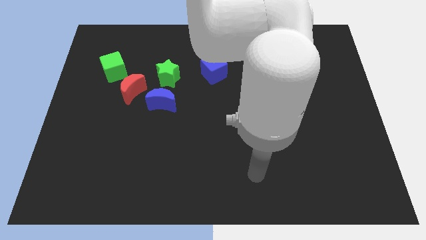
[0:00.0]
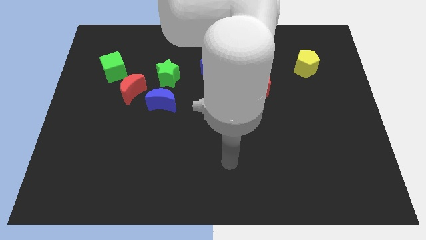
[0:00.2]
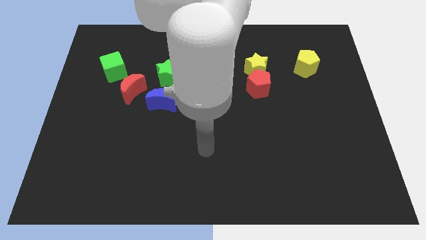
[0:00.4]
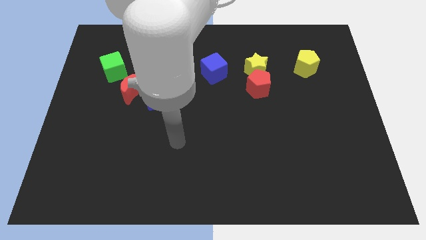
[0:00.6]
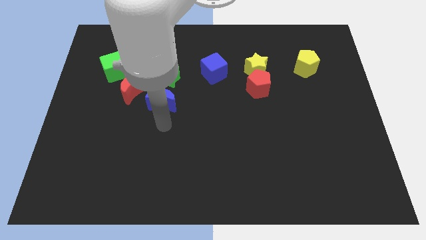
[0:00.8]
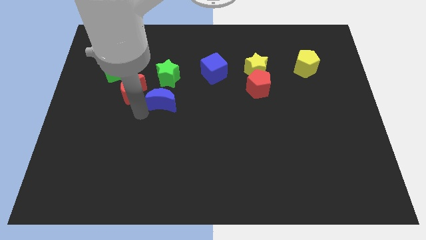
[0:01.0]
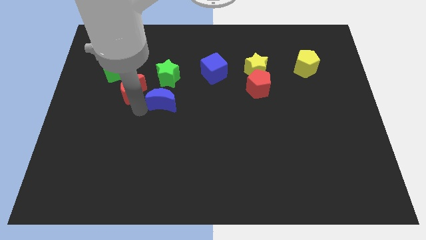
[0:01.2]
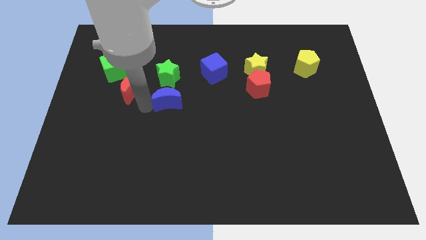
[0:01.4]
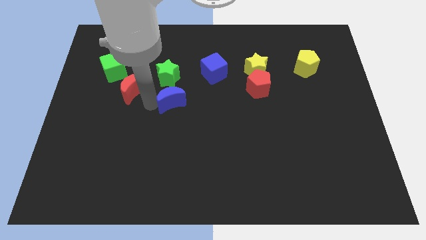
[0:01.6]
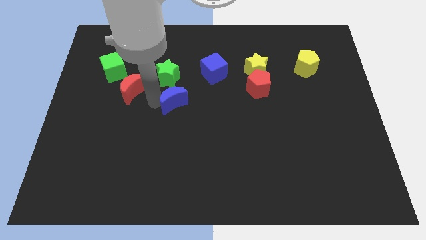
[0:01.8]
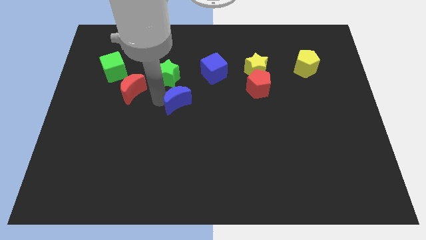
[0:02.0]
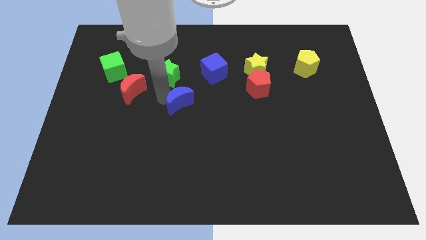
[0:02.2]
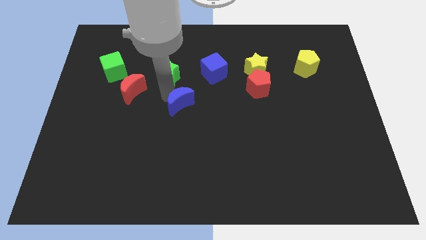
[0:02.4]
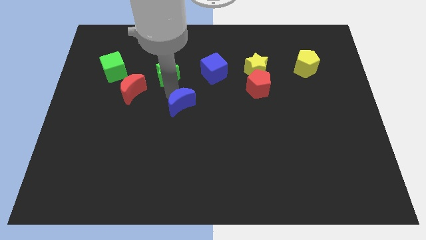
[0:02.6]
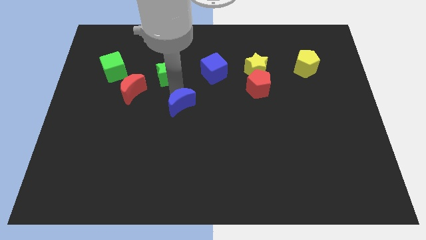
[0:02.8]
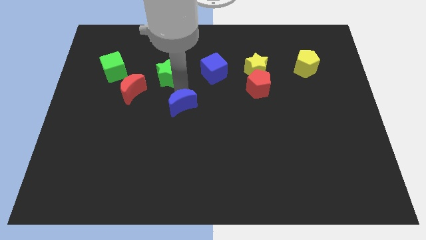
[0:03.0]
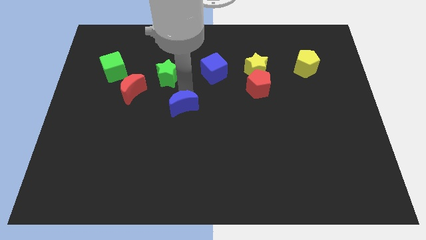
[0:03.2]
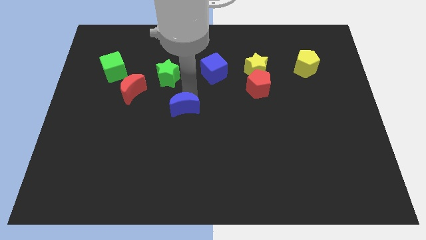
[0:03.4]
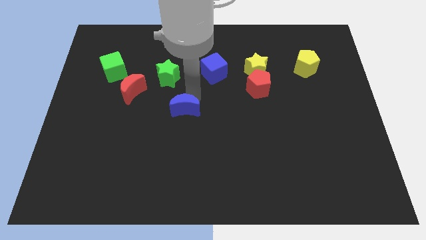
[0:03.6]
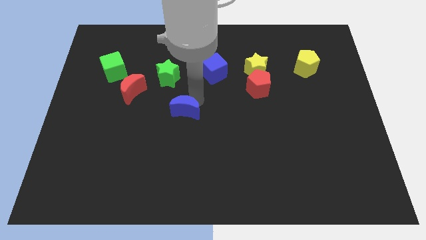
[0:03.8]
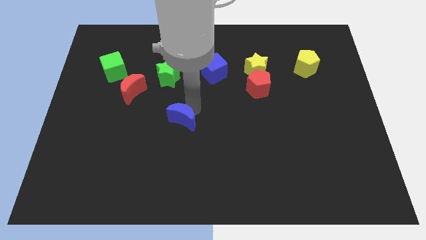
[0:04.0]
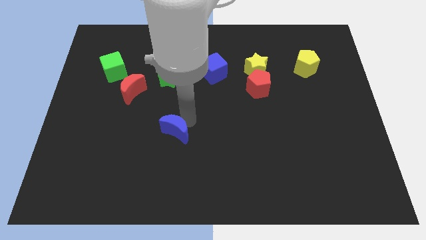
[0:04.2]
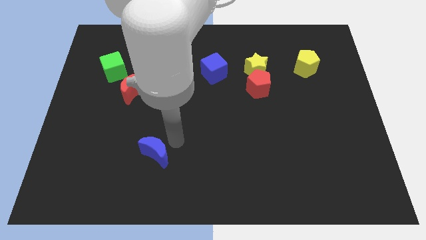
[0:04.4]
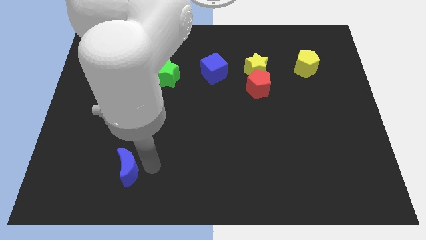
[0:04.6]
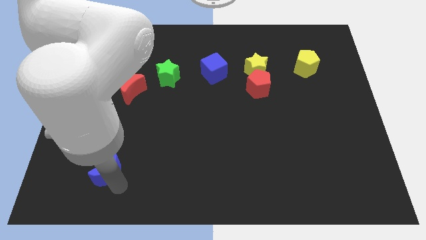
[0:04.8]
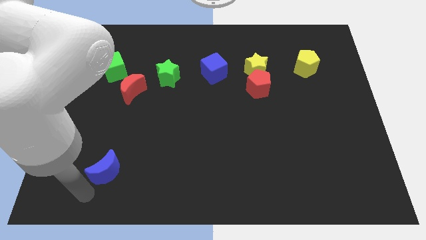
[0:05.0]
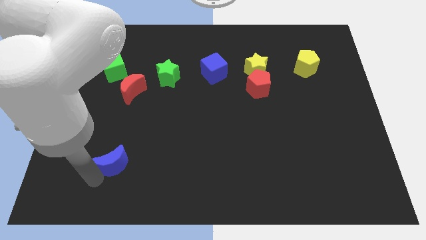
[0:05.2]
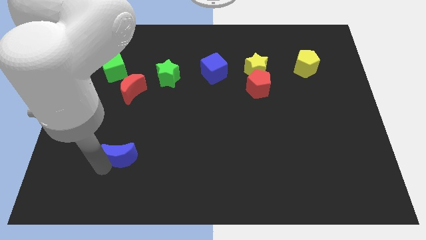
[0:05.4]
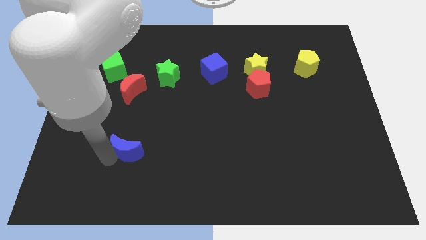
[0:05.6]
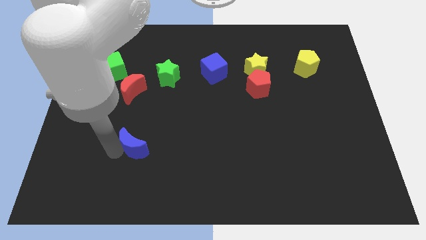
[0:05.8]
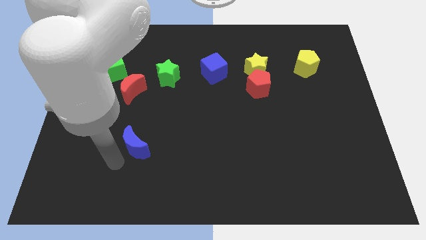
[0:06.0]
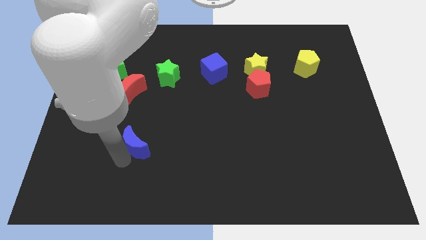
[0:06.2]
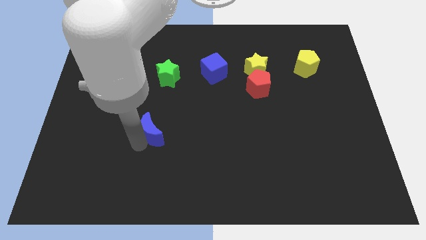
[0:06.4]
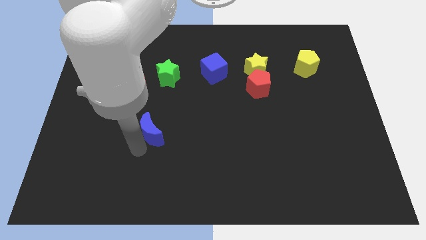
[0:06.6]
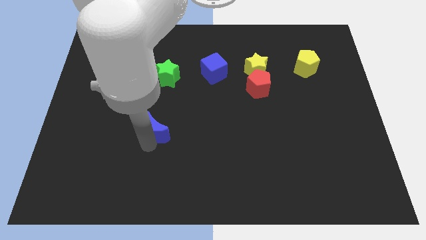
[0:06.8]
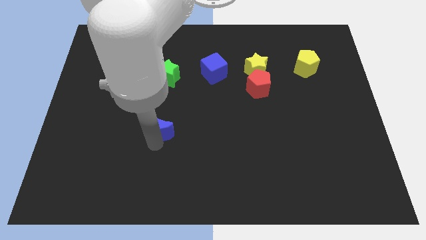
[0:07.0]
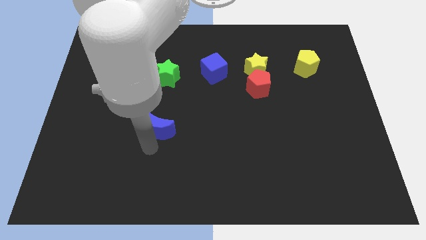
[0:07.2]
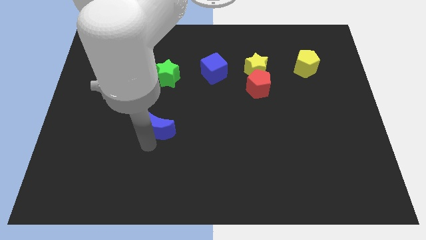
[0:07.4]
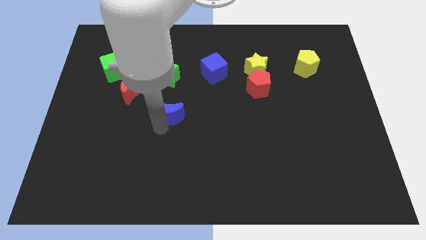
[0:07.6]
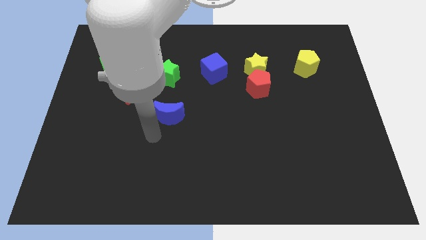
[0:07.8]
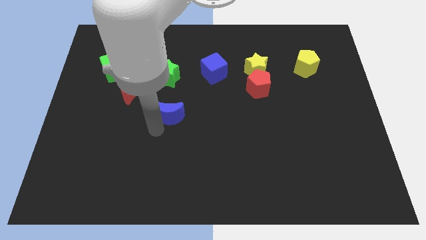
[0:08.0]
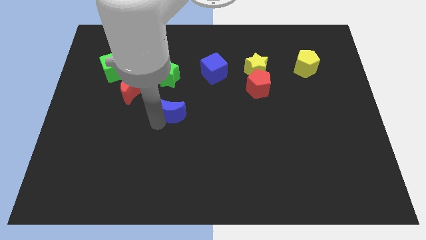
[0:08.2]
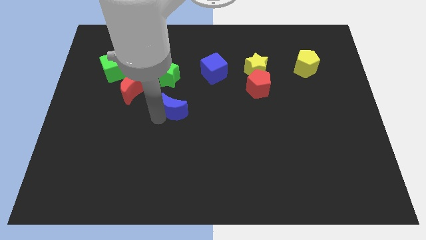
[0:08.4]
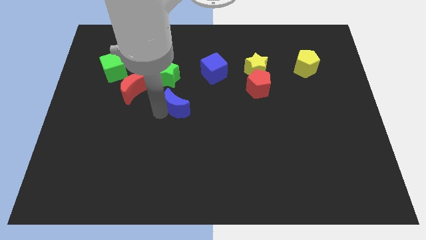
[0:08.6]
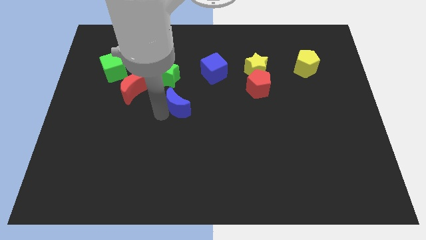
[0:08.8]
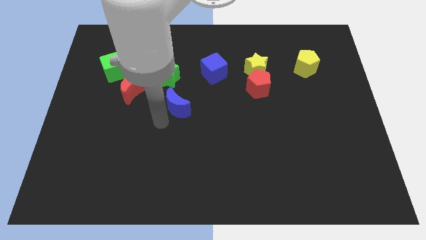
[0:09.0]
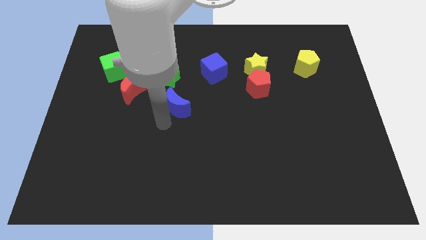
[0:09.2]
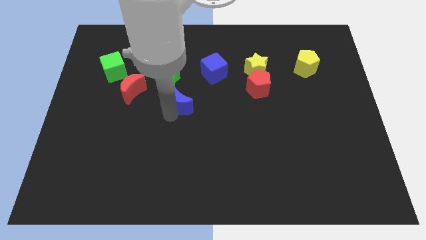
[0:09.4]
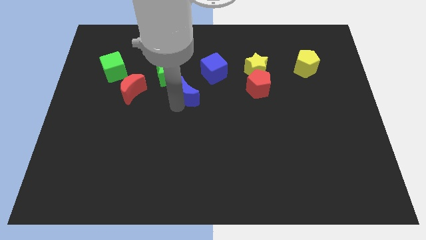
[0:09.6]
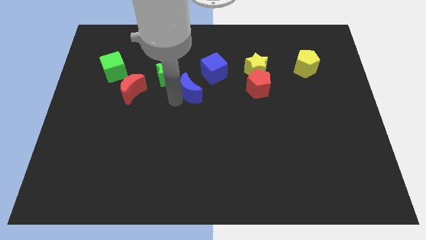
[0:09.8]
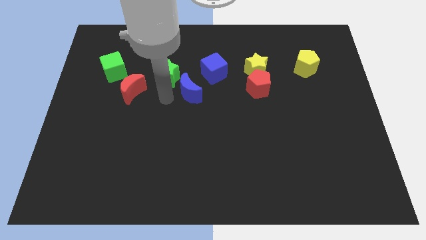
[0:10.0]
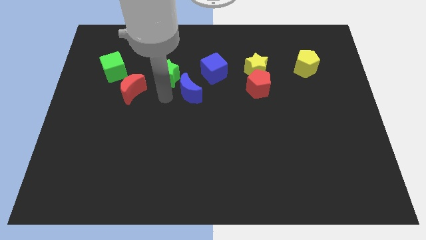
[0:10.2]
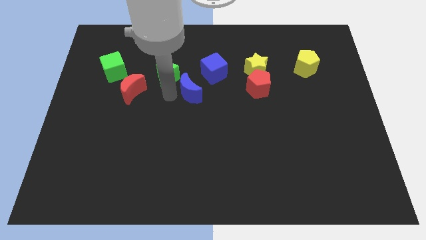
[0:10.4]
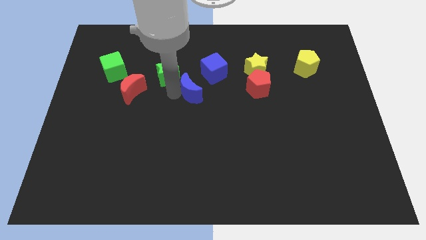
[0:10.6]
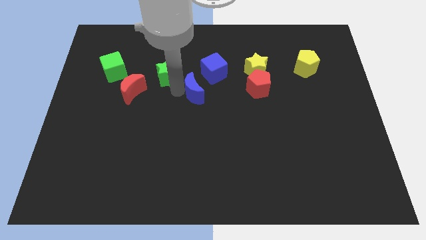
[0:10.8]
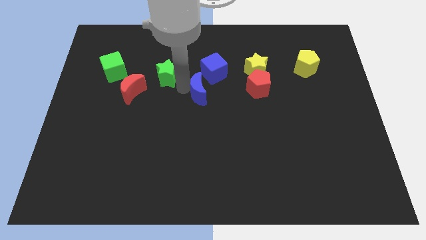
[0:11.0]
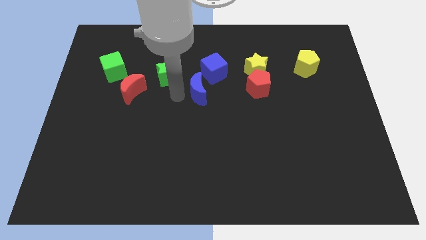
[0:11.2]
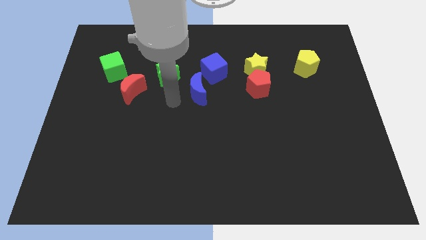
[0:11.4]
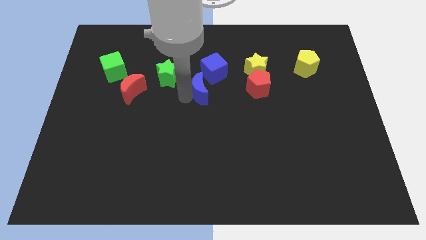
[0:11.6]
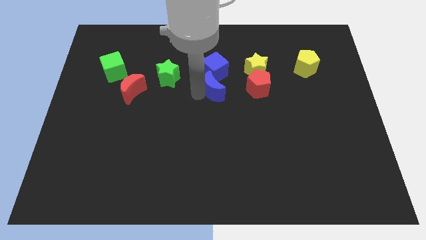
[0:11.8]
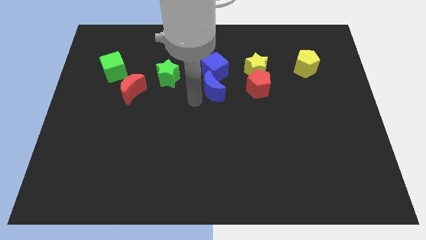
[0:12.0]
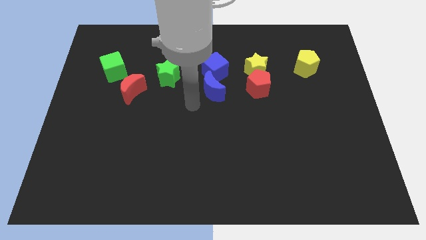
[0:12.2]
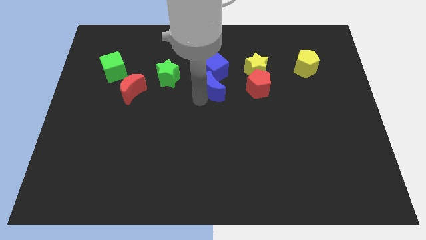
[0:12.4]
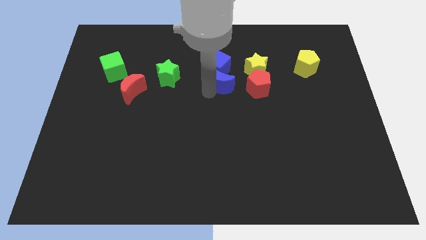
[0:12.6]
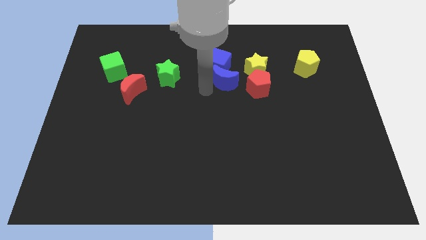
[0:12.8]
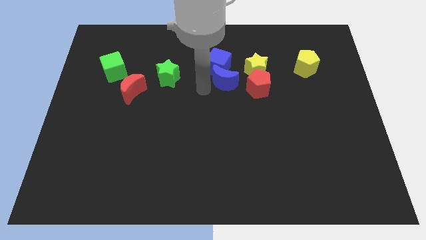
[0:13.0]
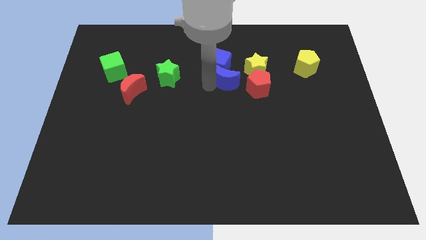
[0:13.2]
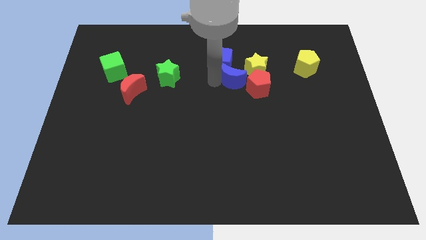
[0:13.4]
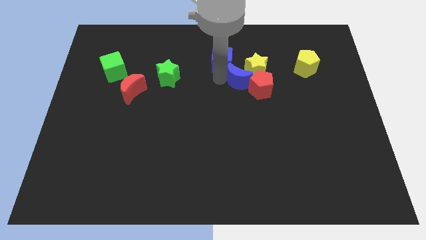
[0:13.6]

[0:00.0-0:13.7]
push the blue moon next to the yellow star

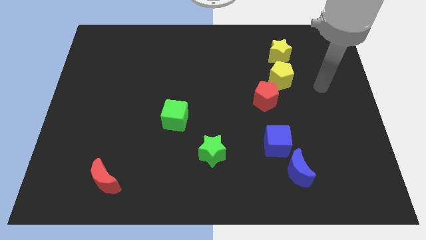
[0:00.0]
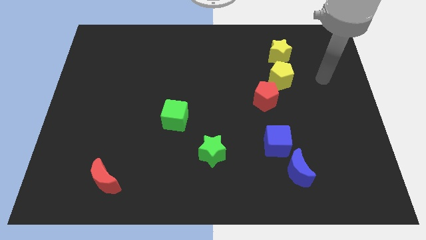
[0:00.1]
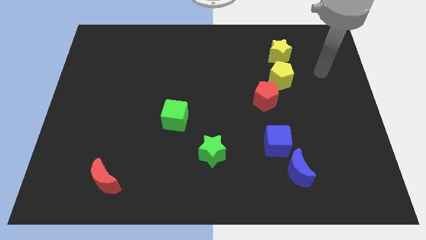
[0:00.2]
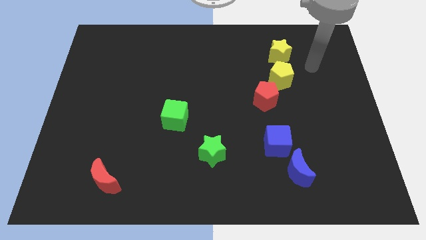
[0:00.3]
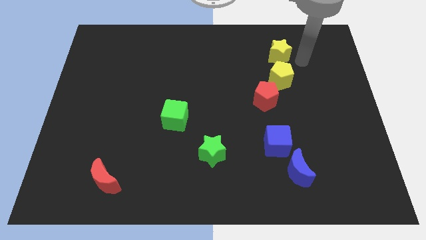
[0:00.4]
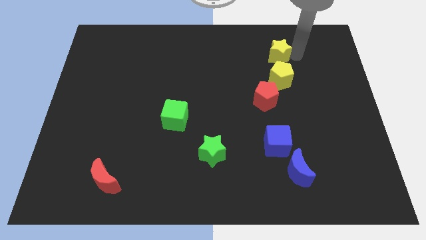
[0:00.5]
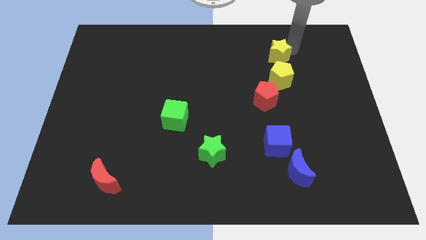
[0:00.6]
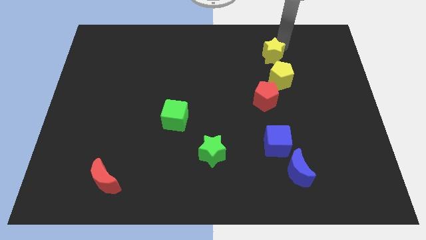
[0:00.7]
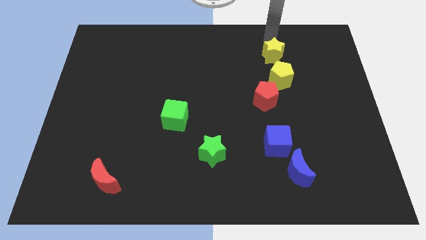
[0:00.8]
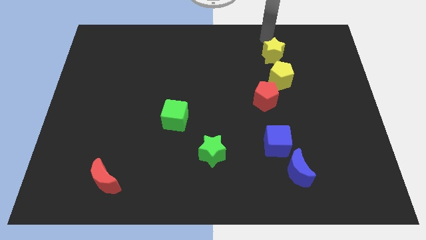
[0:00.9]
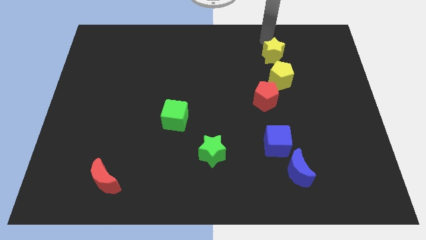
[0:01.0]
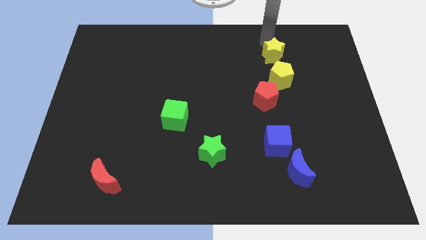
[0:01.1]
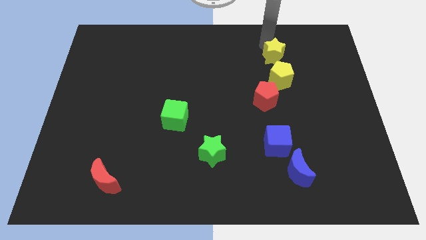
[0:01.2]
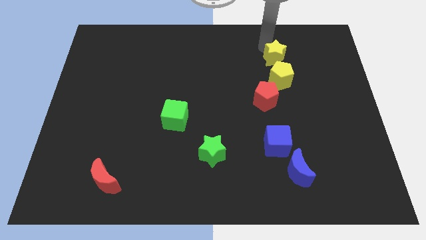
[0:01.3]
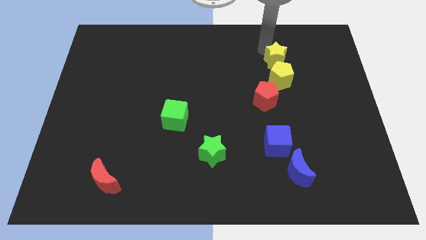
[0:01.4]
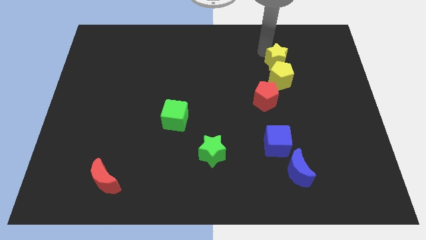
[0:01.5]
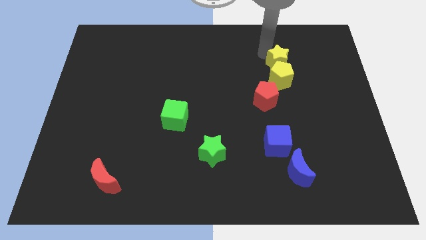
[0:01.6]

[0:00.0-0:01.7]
slide the yellow star close to the yellow pentagon
